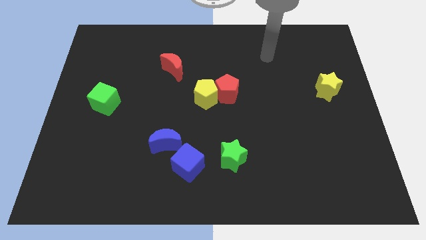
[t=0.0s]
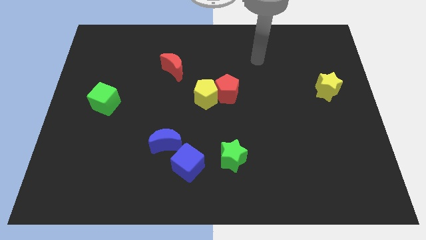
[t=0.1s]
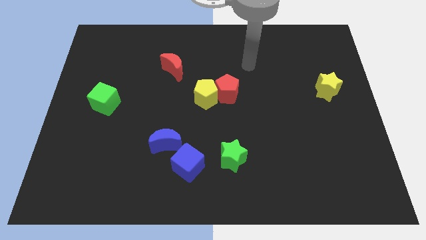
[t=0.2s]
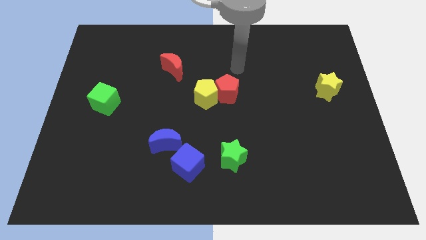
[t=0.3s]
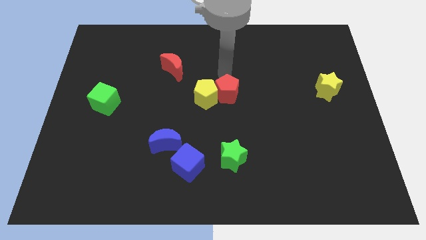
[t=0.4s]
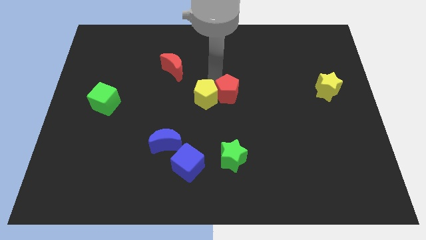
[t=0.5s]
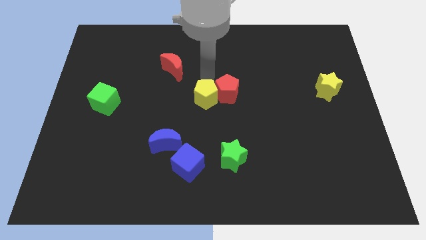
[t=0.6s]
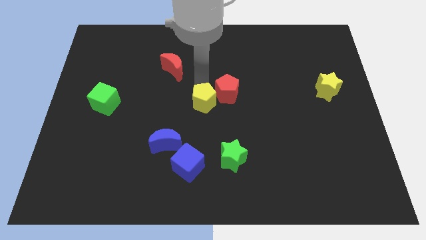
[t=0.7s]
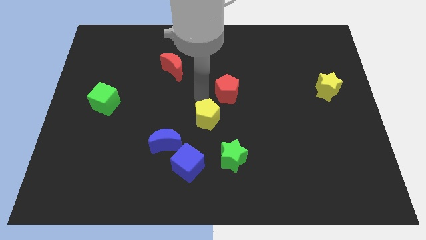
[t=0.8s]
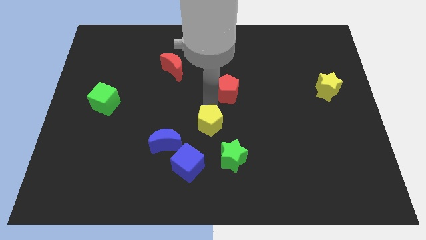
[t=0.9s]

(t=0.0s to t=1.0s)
pull the red pentagon apart from the yellow pentagon

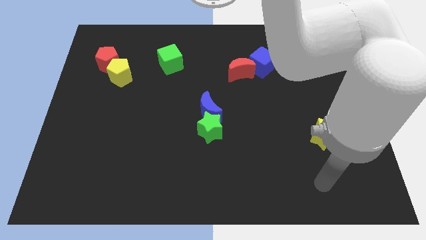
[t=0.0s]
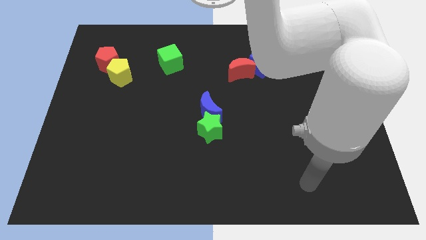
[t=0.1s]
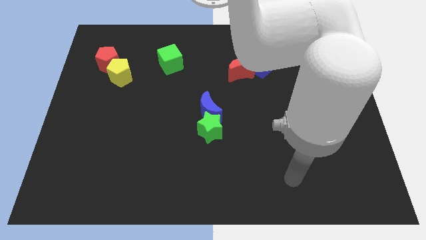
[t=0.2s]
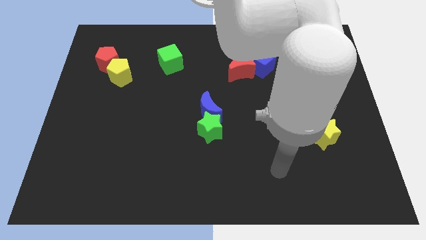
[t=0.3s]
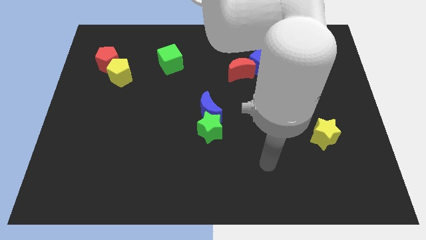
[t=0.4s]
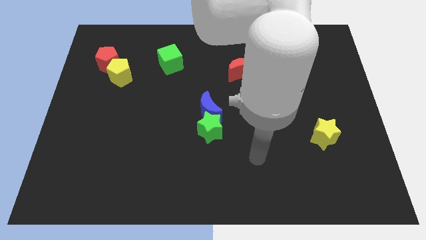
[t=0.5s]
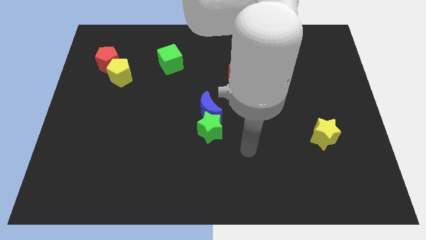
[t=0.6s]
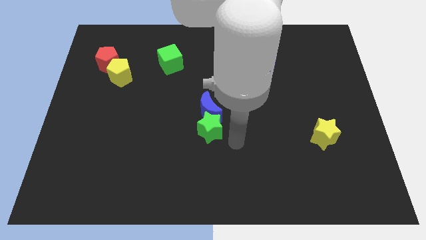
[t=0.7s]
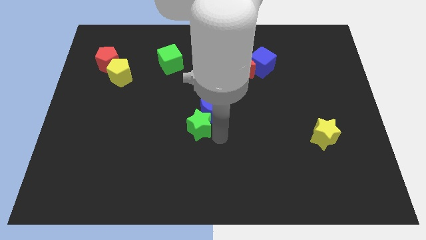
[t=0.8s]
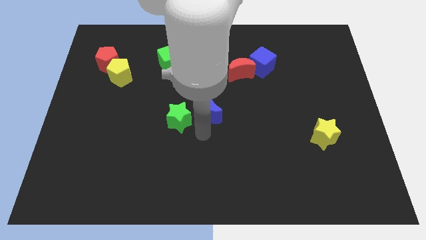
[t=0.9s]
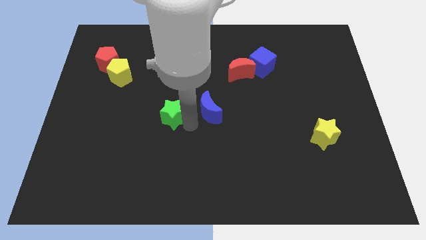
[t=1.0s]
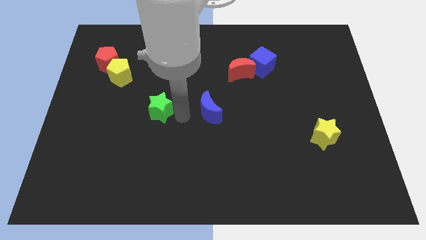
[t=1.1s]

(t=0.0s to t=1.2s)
move the blue moon away from the green star

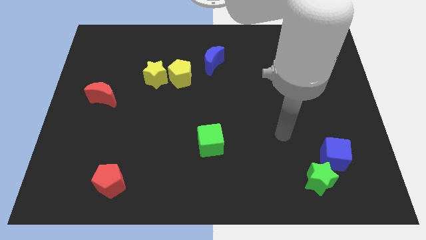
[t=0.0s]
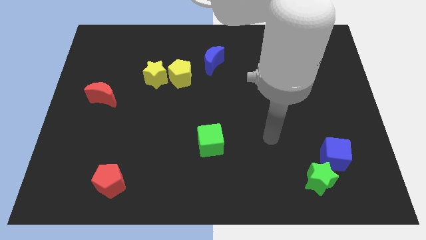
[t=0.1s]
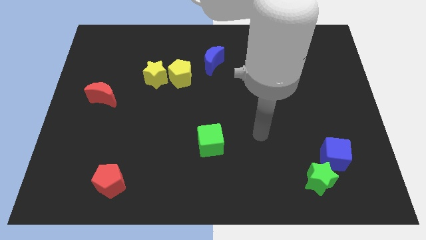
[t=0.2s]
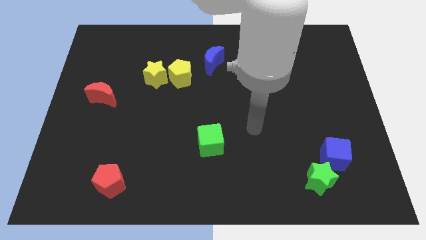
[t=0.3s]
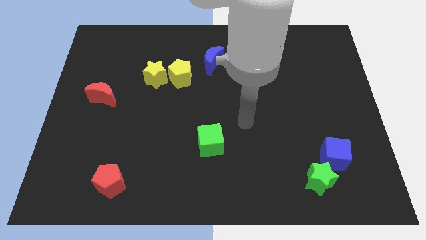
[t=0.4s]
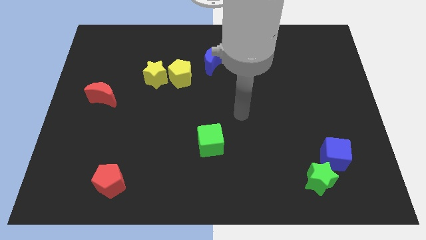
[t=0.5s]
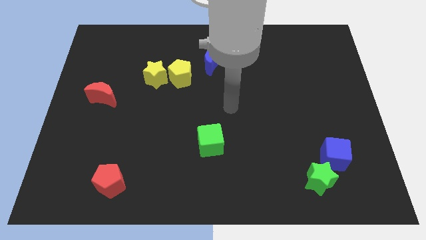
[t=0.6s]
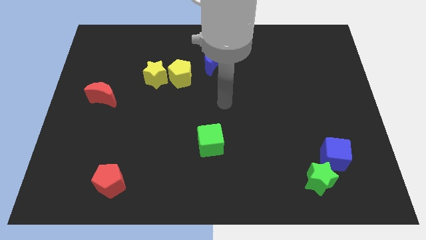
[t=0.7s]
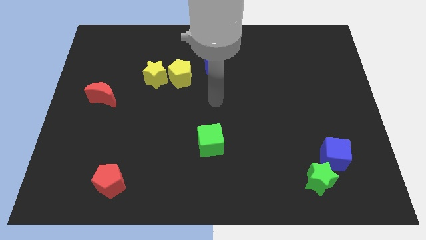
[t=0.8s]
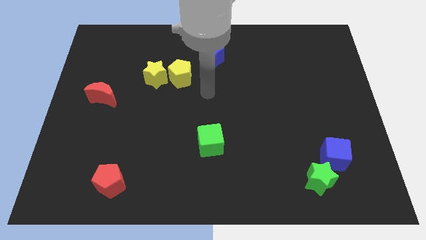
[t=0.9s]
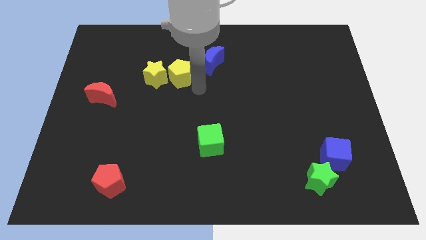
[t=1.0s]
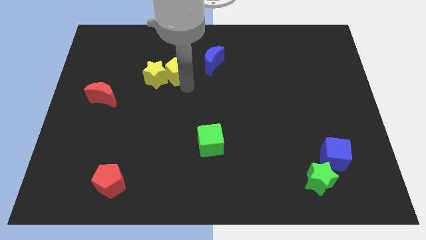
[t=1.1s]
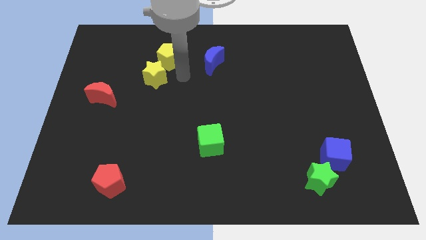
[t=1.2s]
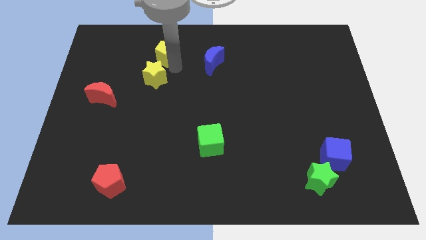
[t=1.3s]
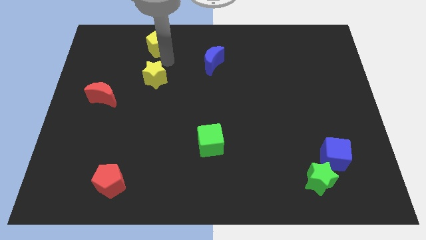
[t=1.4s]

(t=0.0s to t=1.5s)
move the yellow star away from the yellow pentagon

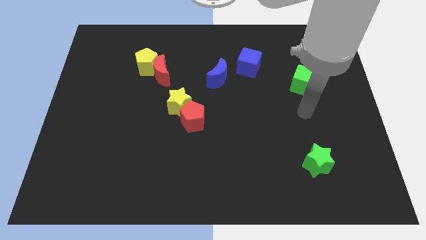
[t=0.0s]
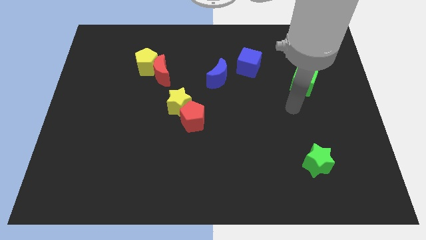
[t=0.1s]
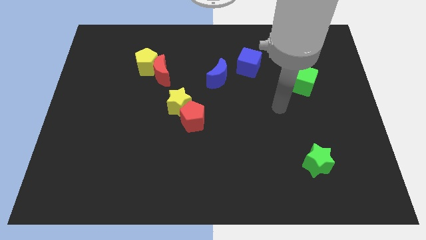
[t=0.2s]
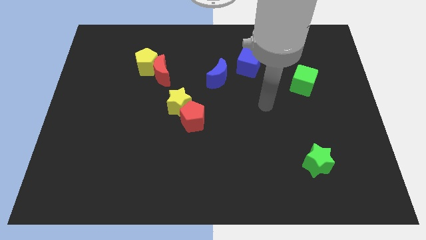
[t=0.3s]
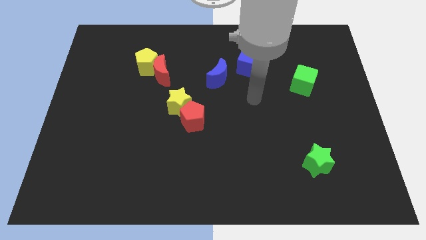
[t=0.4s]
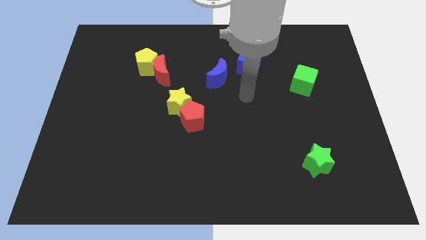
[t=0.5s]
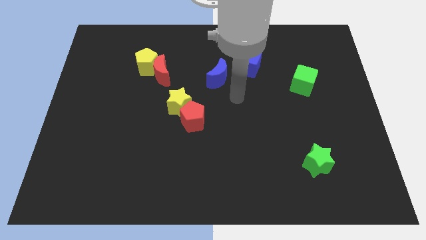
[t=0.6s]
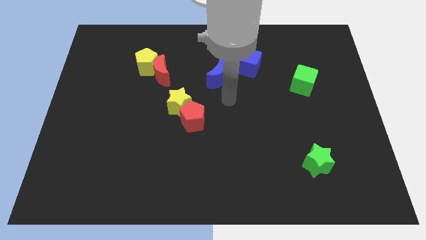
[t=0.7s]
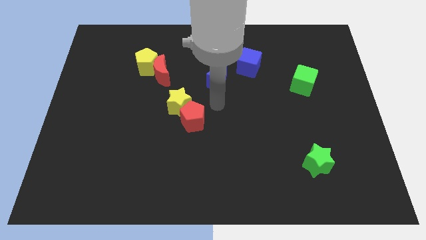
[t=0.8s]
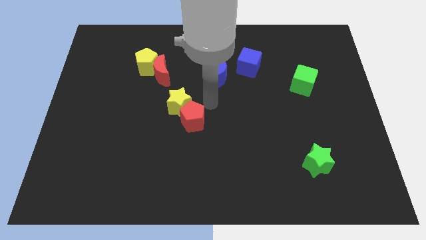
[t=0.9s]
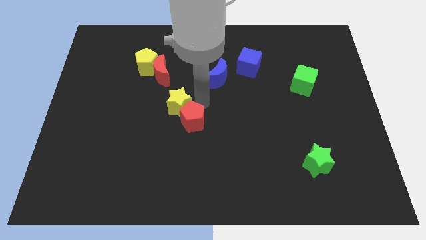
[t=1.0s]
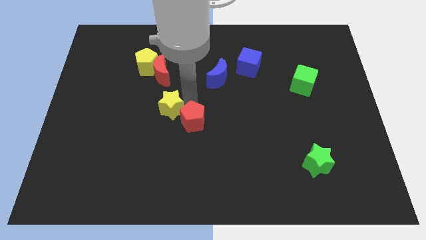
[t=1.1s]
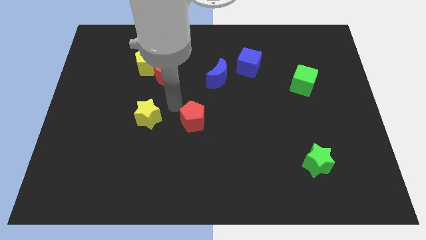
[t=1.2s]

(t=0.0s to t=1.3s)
move the red pentagon away from the yellow star

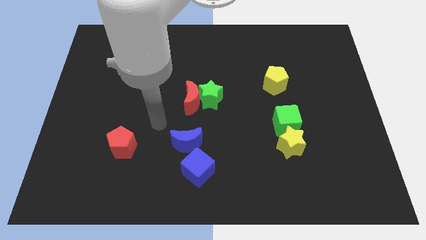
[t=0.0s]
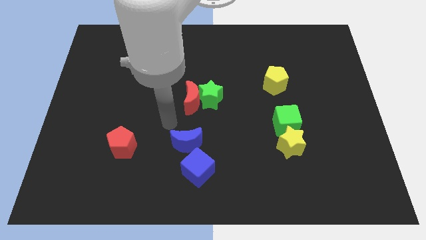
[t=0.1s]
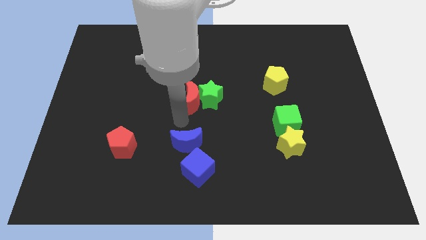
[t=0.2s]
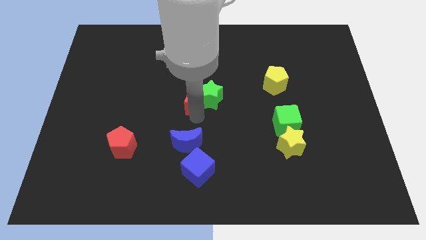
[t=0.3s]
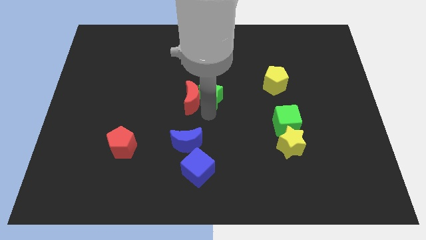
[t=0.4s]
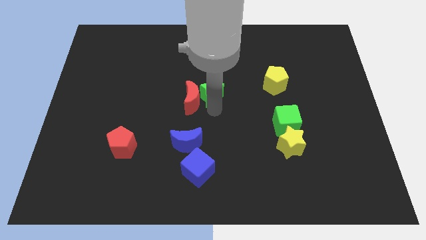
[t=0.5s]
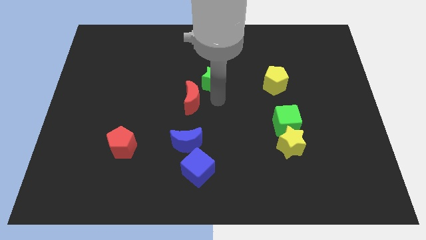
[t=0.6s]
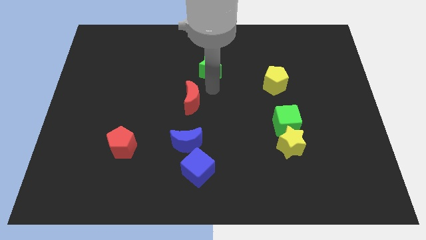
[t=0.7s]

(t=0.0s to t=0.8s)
pull the red moon apart from the green star

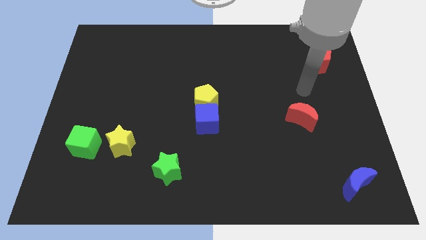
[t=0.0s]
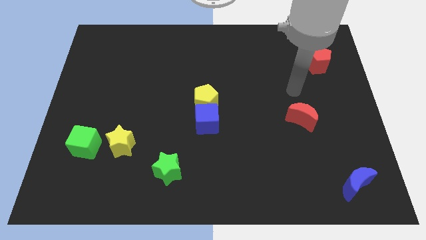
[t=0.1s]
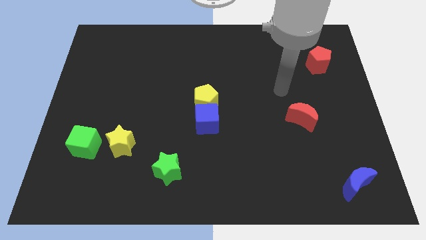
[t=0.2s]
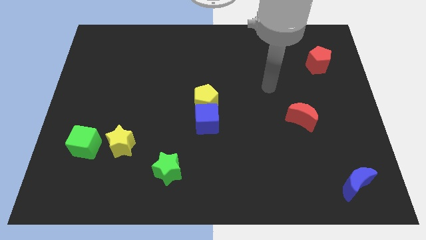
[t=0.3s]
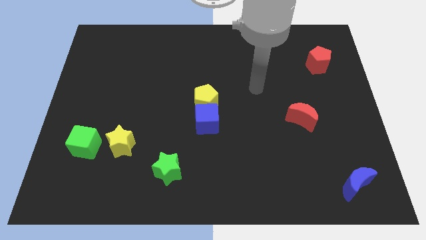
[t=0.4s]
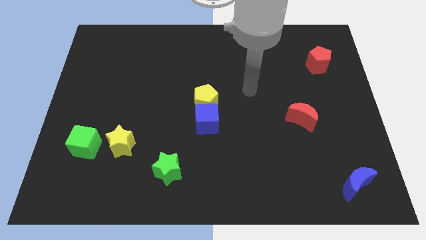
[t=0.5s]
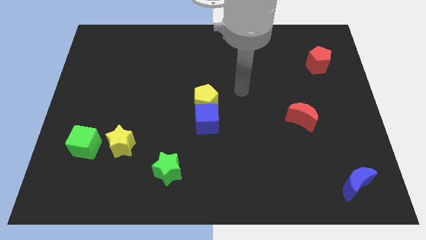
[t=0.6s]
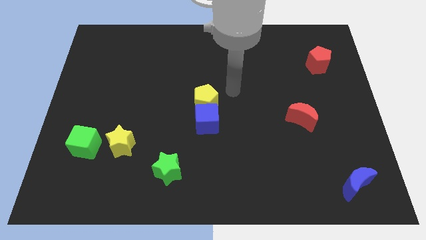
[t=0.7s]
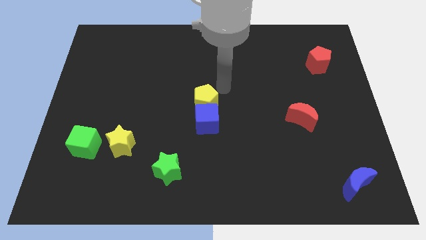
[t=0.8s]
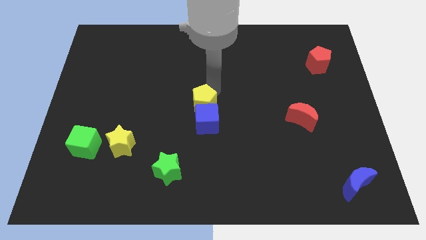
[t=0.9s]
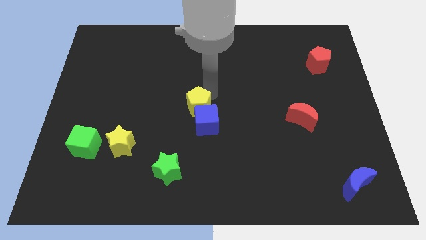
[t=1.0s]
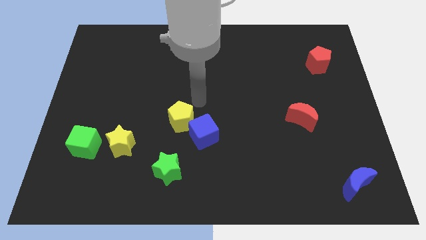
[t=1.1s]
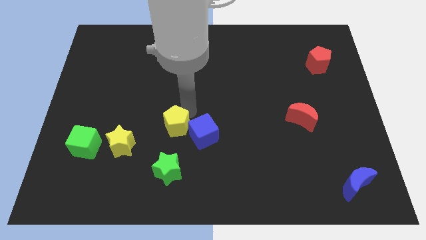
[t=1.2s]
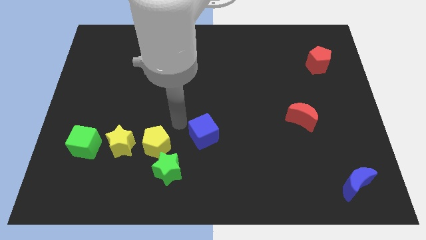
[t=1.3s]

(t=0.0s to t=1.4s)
pull the blue cube apart from the yellow pentagon

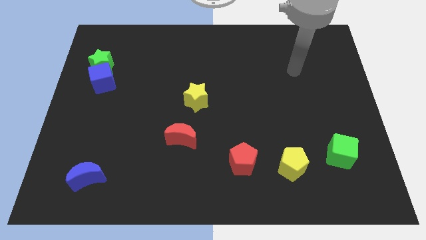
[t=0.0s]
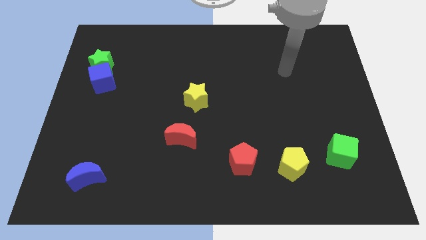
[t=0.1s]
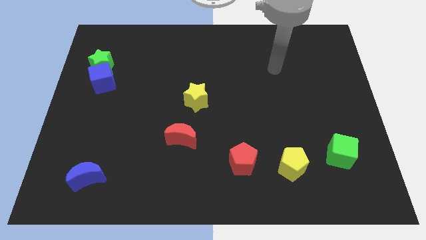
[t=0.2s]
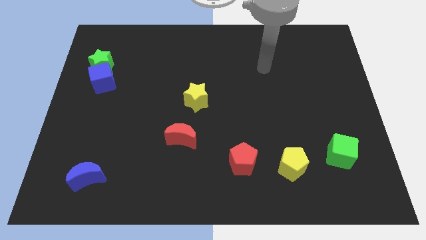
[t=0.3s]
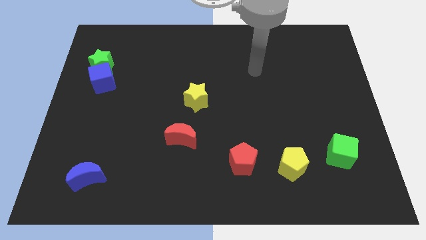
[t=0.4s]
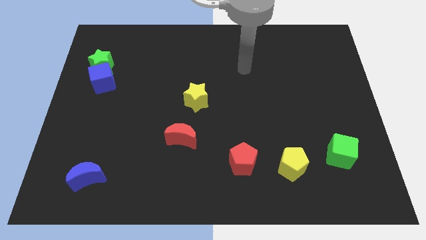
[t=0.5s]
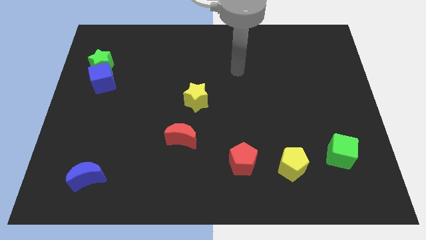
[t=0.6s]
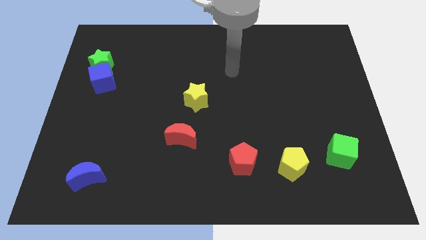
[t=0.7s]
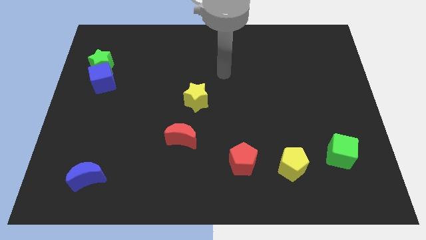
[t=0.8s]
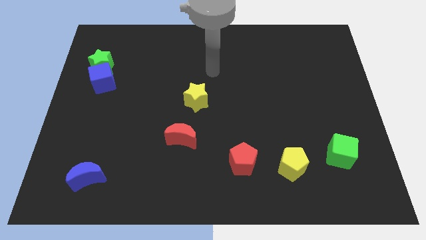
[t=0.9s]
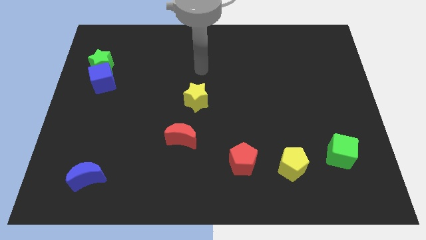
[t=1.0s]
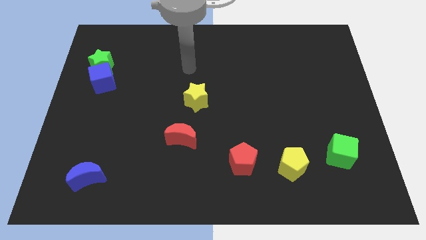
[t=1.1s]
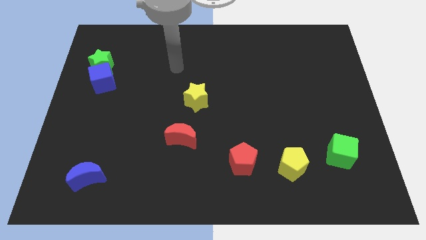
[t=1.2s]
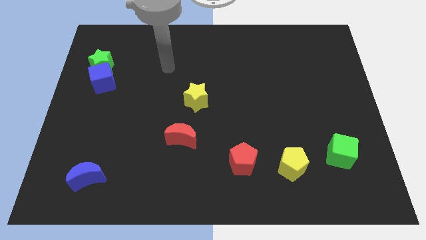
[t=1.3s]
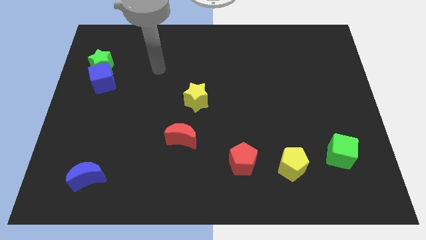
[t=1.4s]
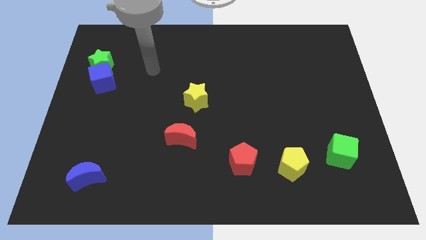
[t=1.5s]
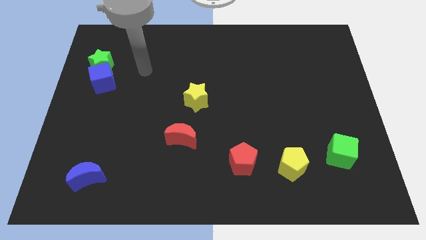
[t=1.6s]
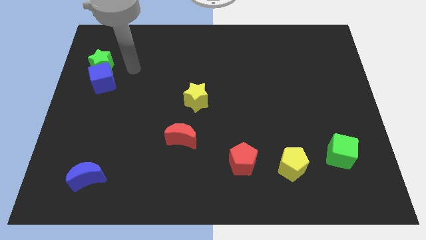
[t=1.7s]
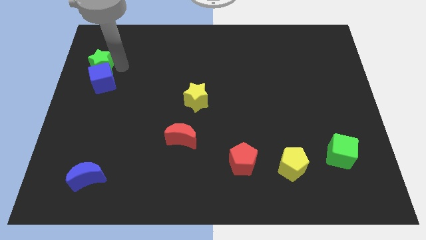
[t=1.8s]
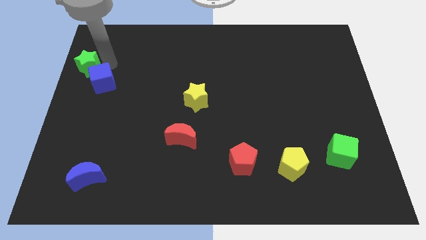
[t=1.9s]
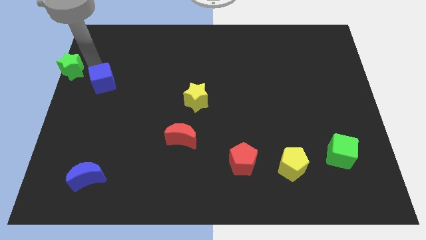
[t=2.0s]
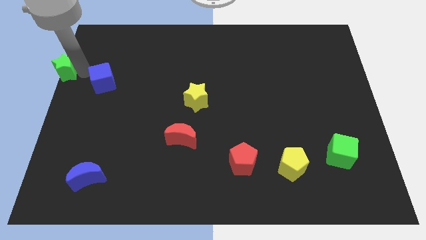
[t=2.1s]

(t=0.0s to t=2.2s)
pull the blue cube apart from the green star
